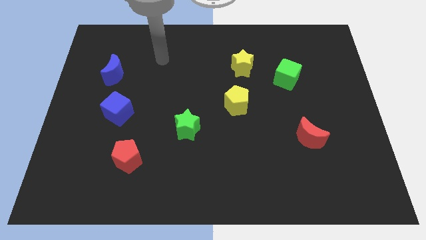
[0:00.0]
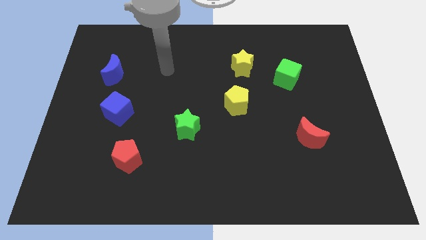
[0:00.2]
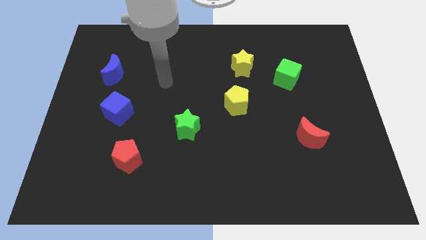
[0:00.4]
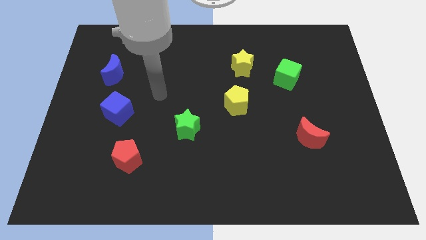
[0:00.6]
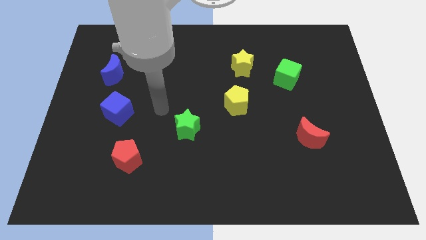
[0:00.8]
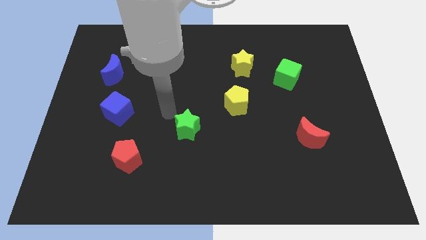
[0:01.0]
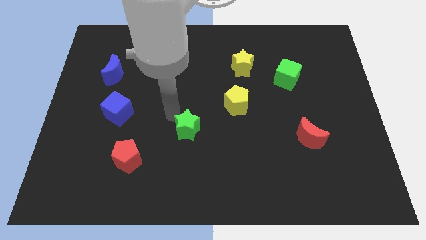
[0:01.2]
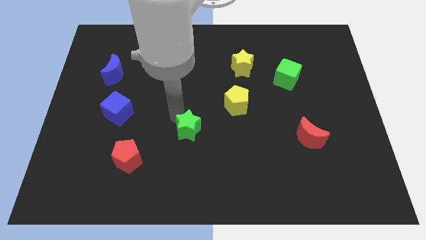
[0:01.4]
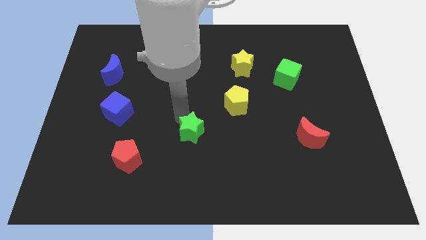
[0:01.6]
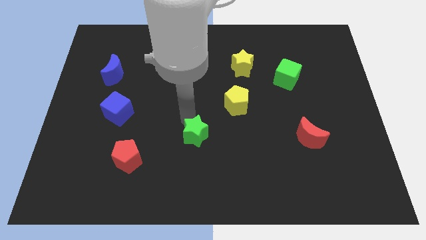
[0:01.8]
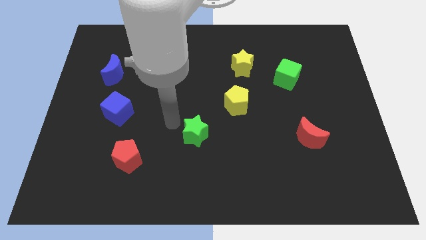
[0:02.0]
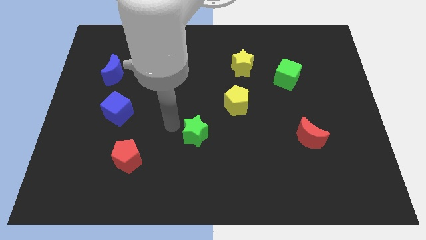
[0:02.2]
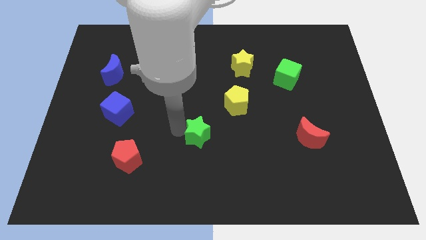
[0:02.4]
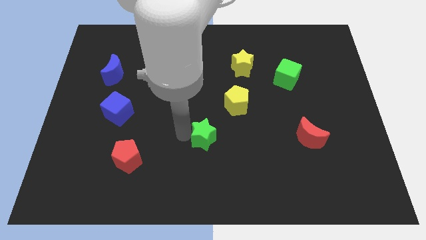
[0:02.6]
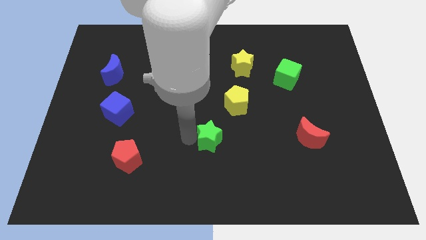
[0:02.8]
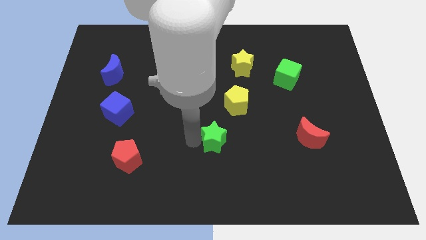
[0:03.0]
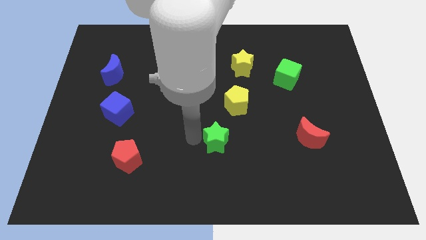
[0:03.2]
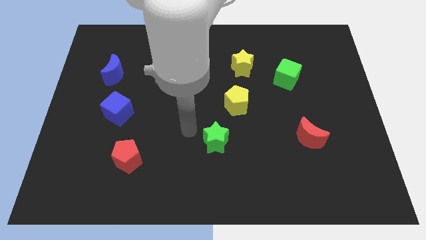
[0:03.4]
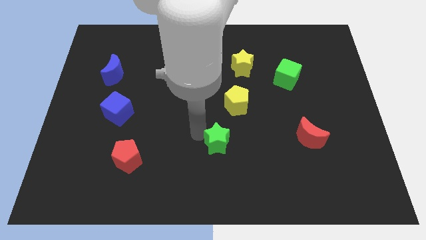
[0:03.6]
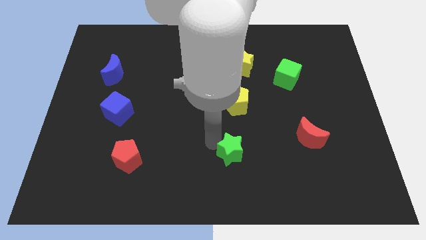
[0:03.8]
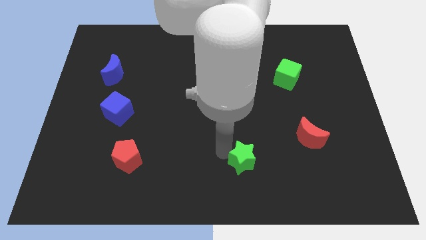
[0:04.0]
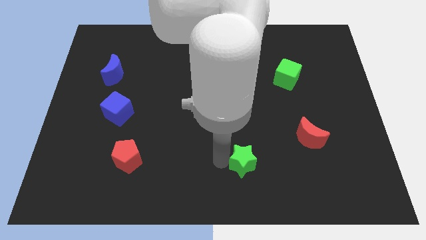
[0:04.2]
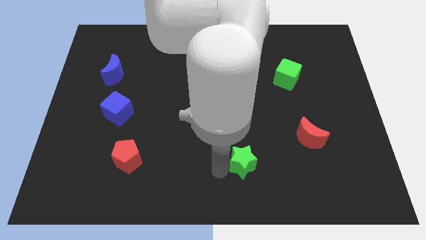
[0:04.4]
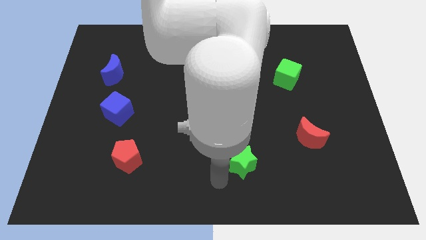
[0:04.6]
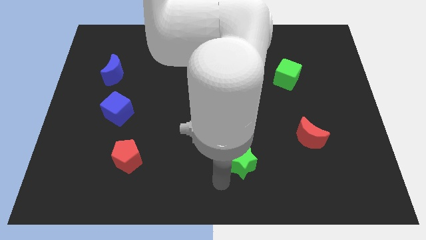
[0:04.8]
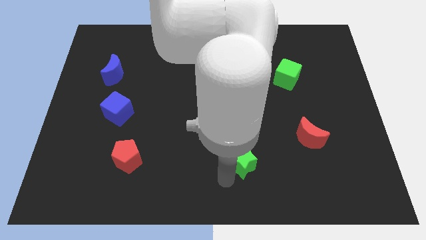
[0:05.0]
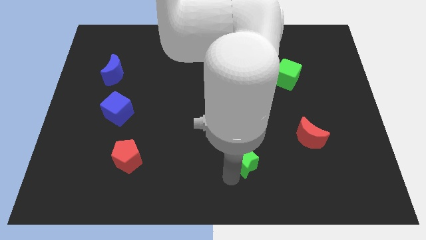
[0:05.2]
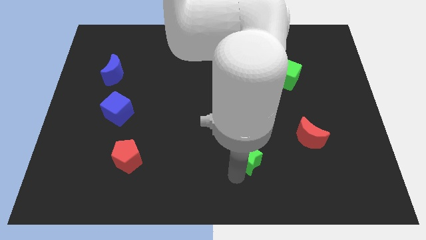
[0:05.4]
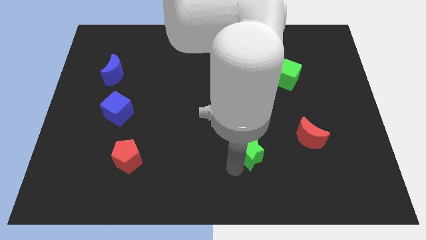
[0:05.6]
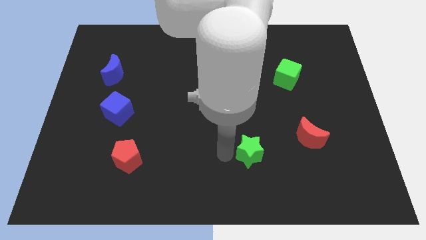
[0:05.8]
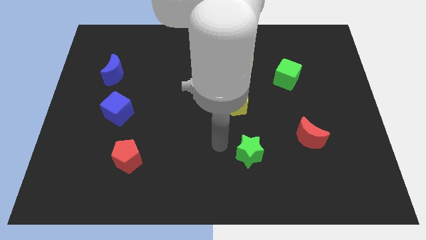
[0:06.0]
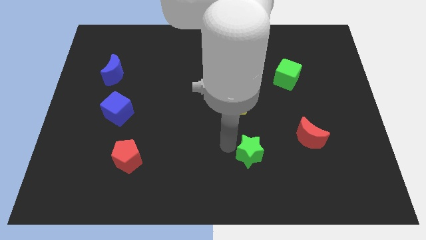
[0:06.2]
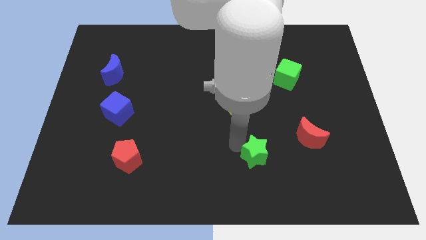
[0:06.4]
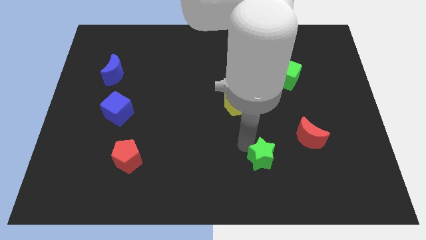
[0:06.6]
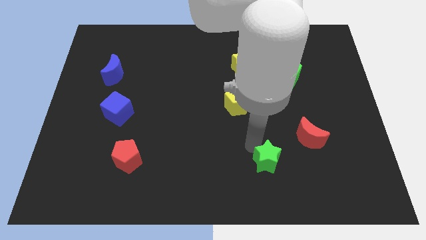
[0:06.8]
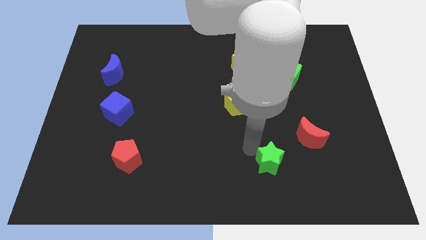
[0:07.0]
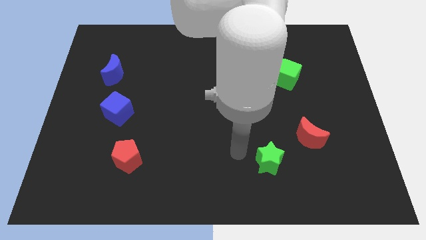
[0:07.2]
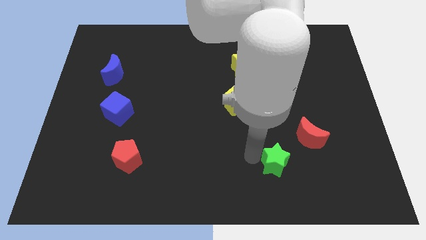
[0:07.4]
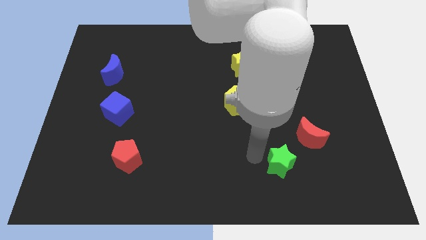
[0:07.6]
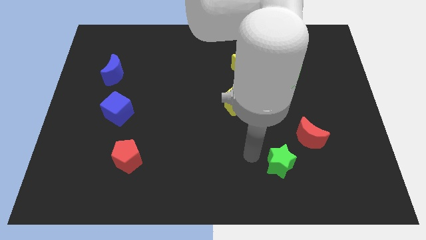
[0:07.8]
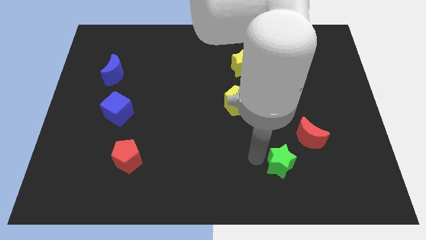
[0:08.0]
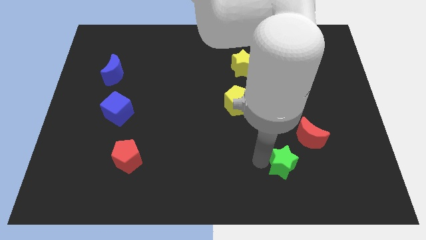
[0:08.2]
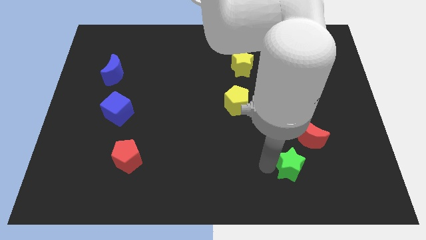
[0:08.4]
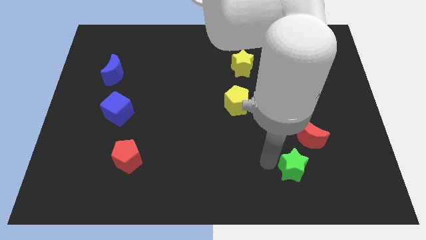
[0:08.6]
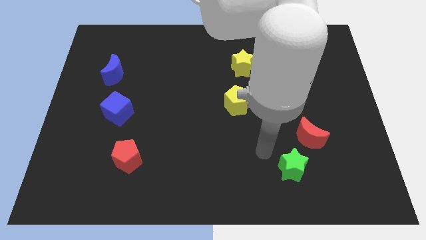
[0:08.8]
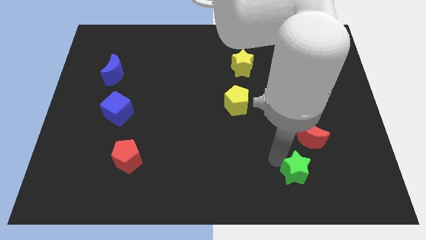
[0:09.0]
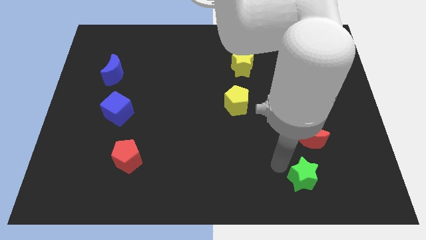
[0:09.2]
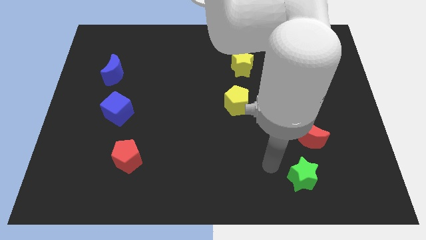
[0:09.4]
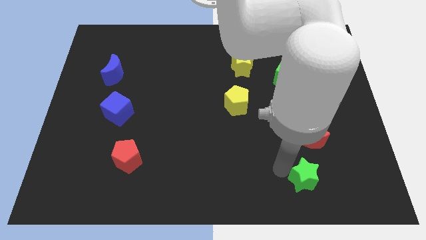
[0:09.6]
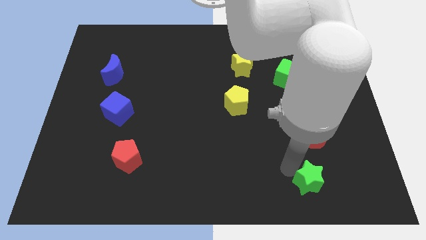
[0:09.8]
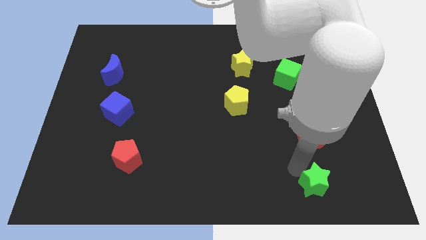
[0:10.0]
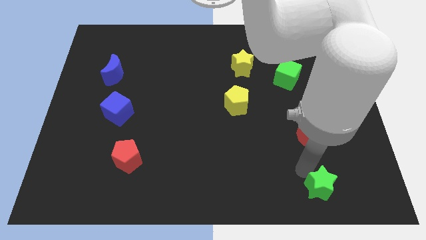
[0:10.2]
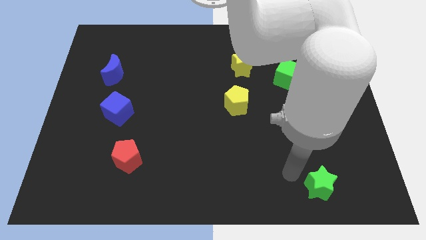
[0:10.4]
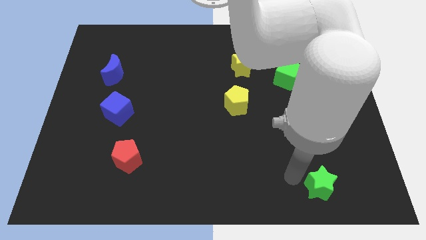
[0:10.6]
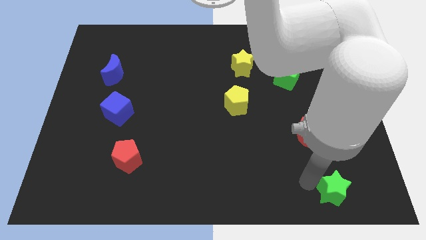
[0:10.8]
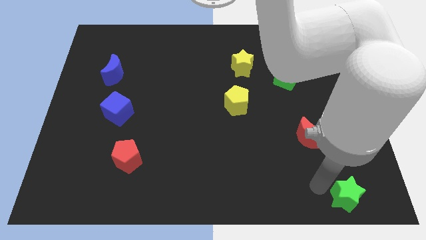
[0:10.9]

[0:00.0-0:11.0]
move the green star to the bottom right of the board

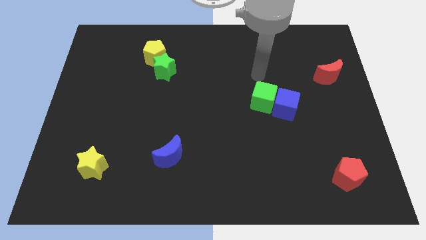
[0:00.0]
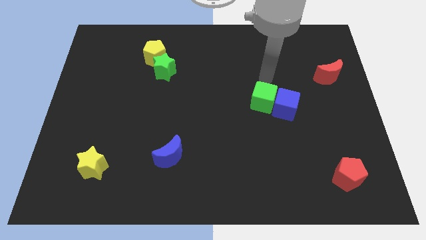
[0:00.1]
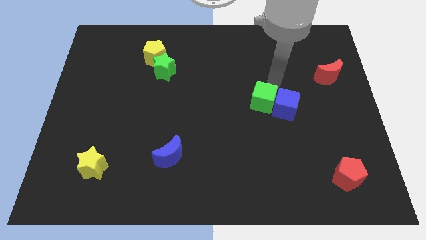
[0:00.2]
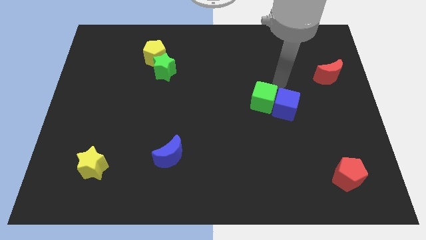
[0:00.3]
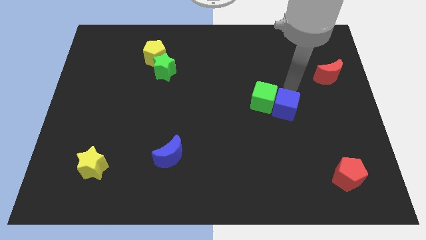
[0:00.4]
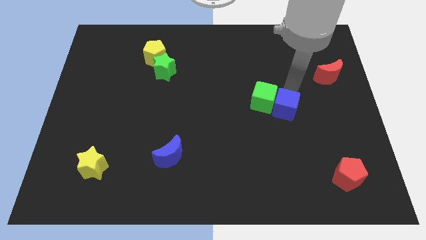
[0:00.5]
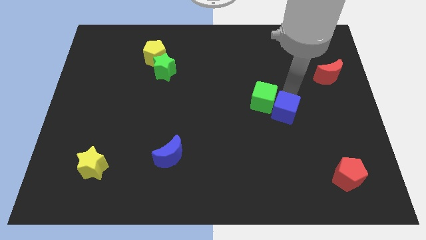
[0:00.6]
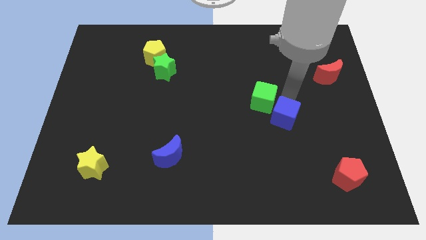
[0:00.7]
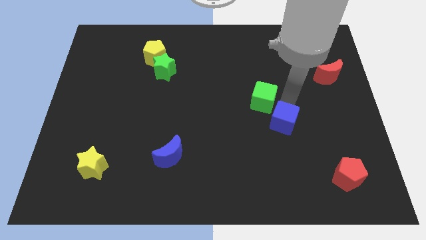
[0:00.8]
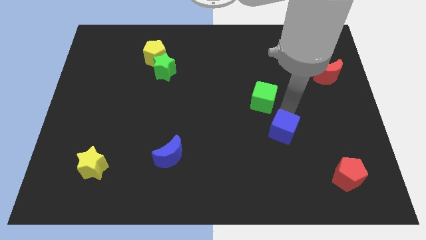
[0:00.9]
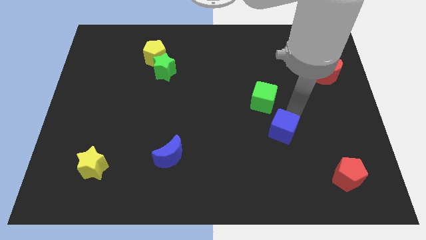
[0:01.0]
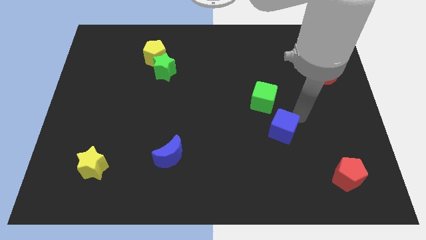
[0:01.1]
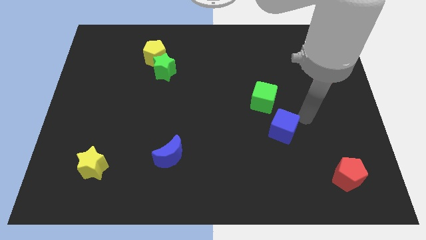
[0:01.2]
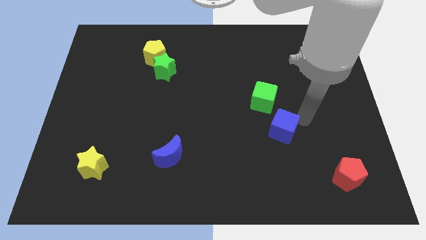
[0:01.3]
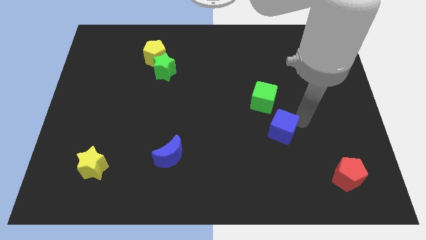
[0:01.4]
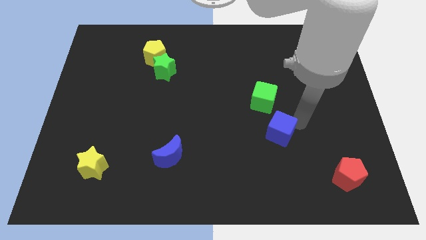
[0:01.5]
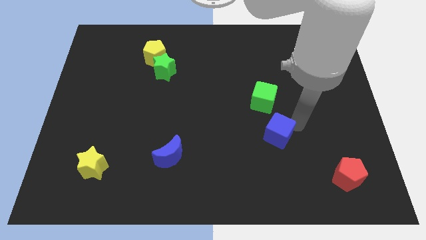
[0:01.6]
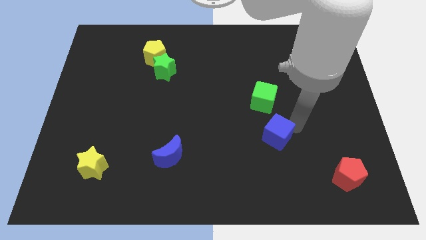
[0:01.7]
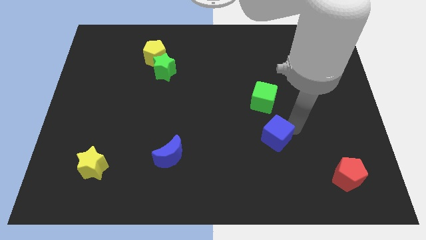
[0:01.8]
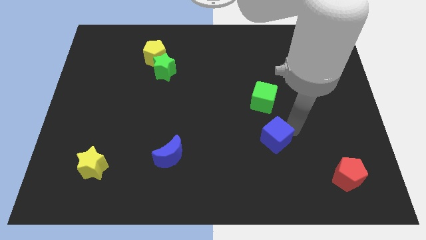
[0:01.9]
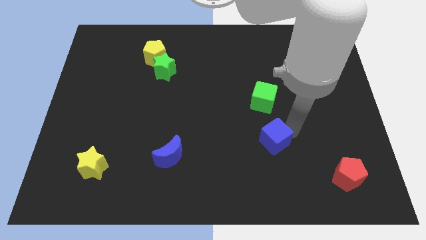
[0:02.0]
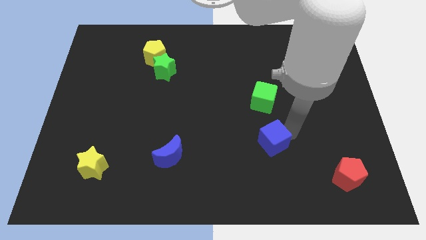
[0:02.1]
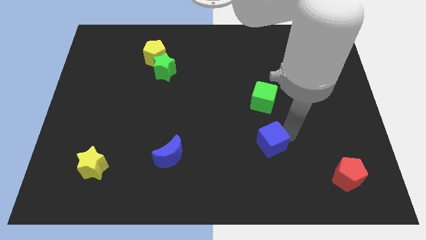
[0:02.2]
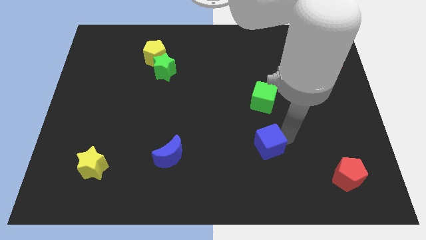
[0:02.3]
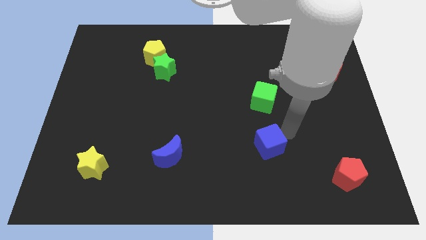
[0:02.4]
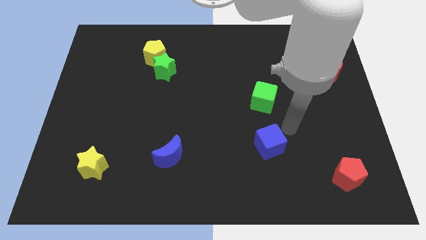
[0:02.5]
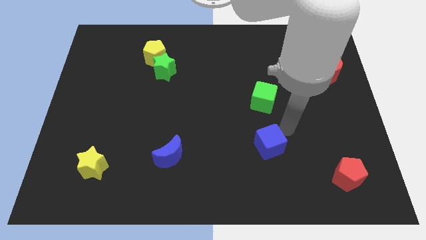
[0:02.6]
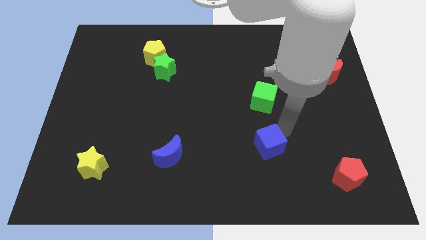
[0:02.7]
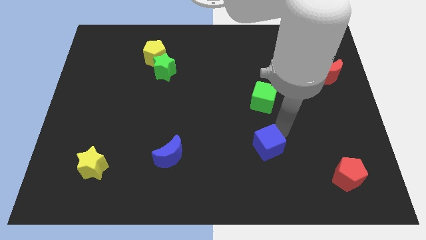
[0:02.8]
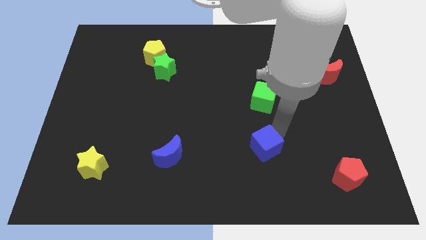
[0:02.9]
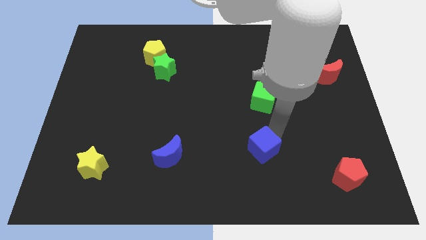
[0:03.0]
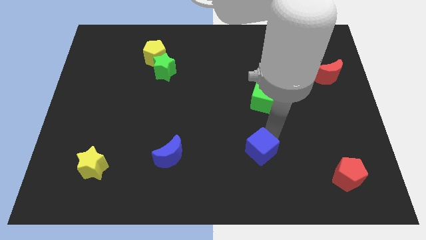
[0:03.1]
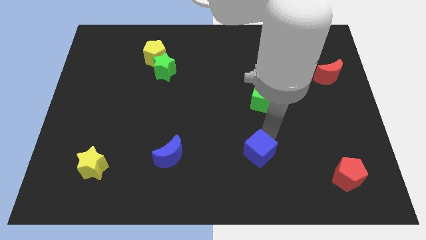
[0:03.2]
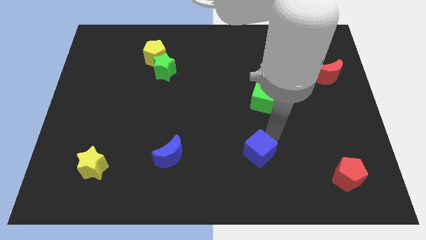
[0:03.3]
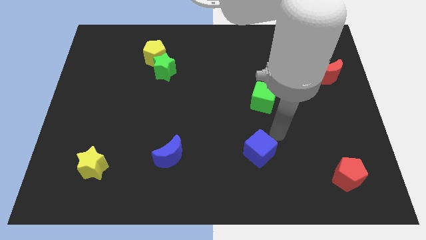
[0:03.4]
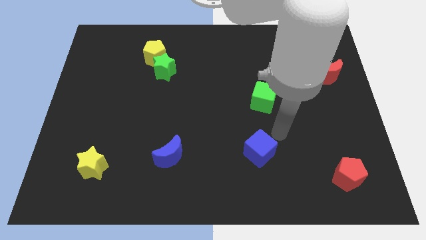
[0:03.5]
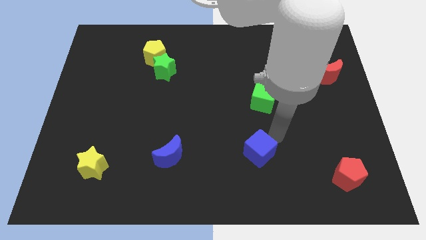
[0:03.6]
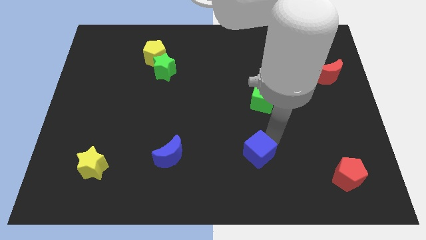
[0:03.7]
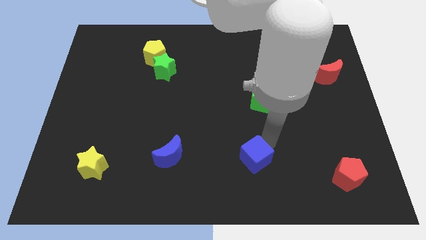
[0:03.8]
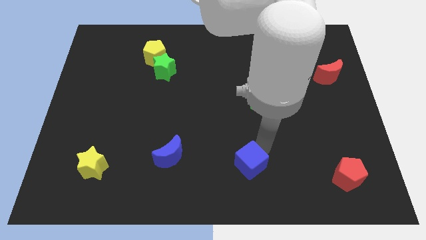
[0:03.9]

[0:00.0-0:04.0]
move the blue cube to the bottom
